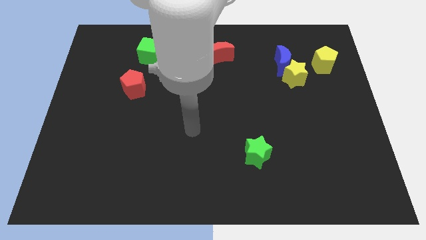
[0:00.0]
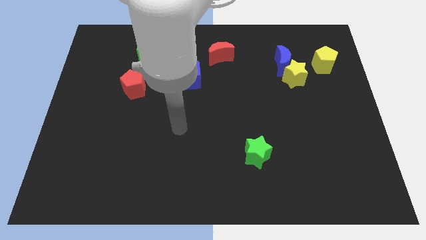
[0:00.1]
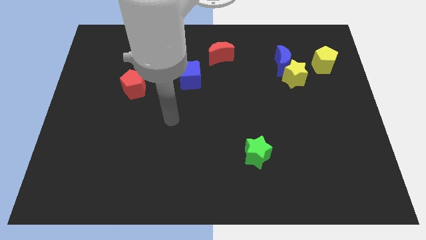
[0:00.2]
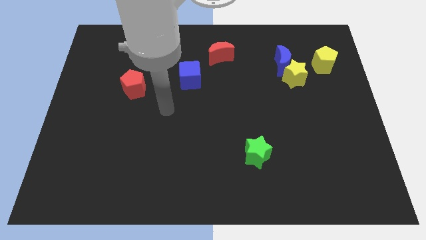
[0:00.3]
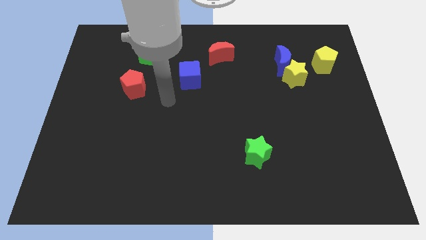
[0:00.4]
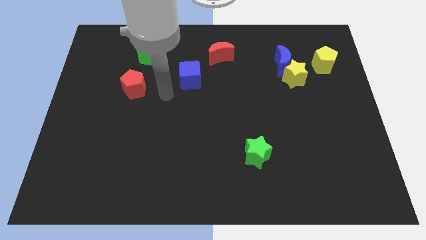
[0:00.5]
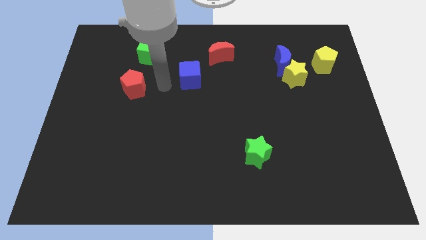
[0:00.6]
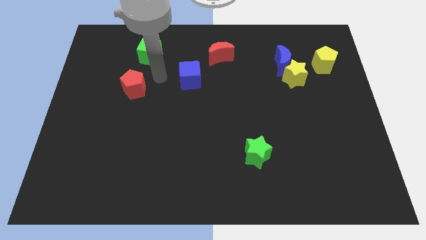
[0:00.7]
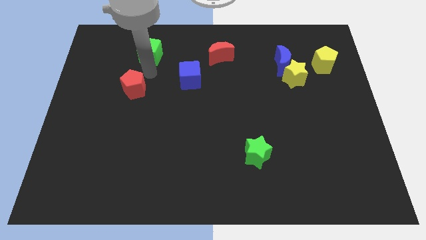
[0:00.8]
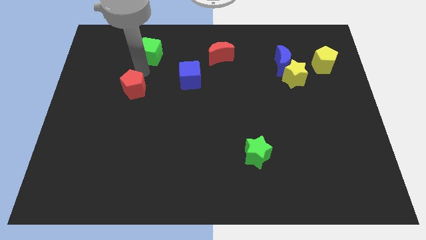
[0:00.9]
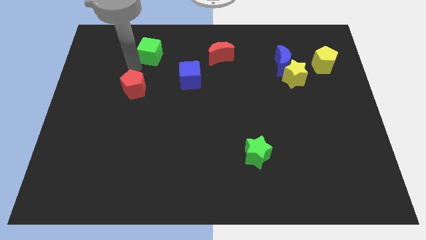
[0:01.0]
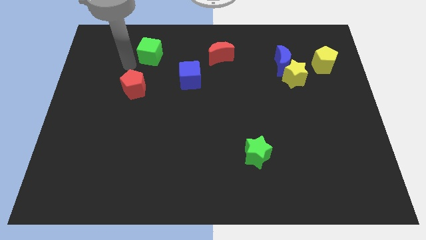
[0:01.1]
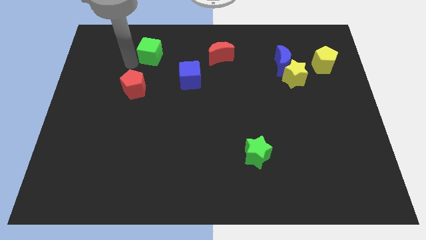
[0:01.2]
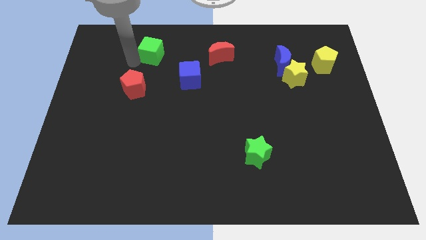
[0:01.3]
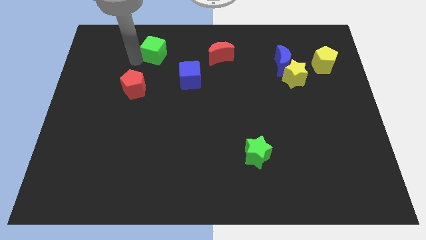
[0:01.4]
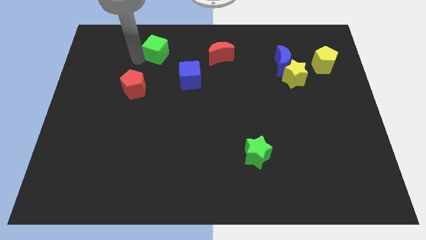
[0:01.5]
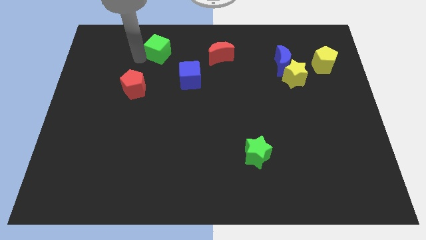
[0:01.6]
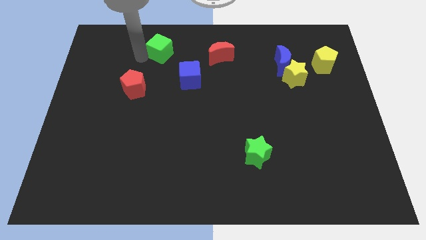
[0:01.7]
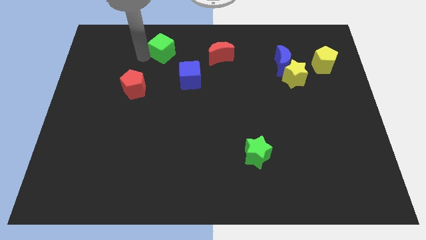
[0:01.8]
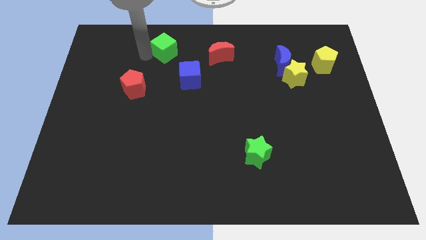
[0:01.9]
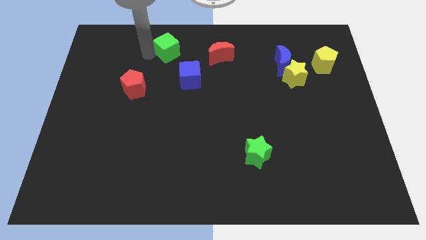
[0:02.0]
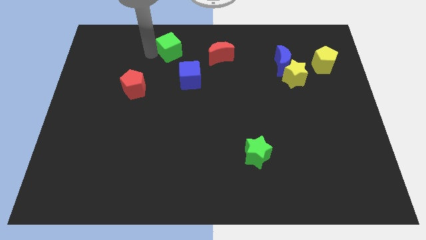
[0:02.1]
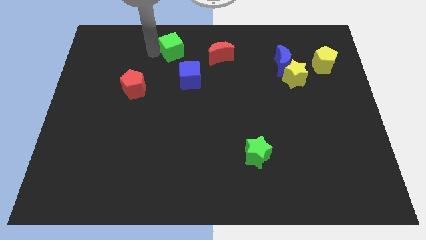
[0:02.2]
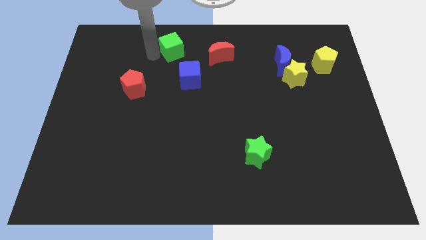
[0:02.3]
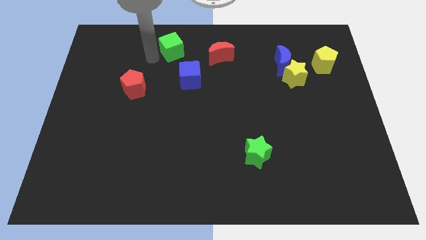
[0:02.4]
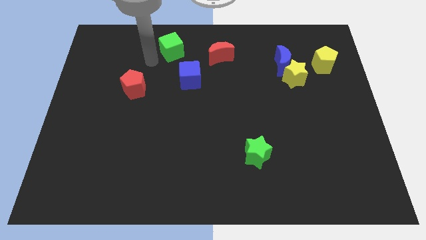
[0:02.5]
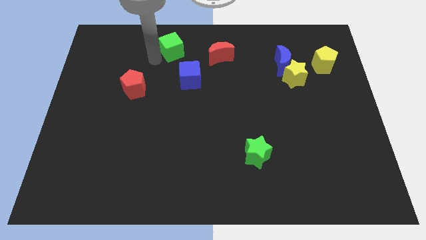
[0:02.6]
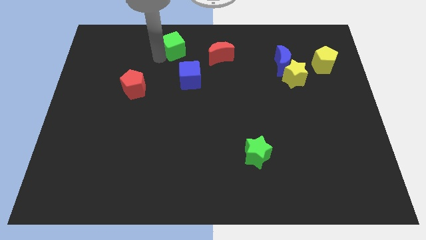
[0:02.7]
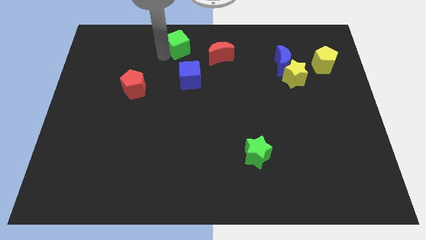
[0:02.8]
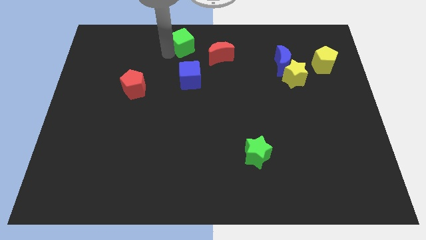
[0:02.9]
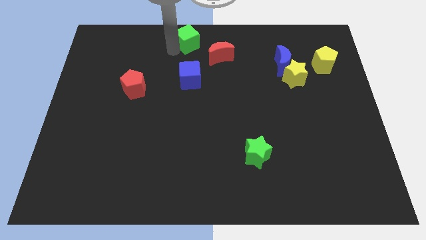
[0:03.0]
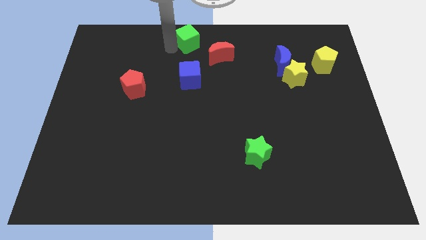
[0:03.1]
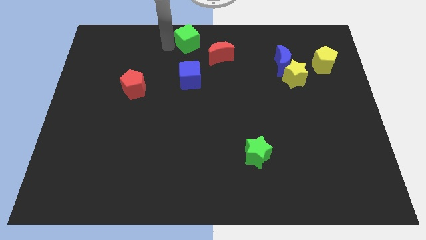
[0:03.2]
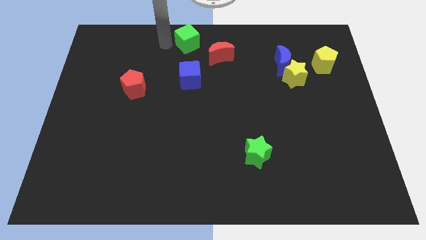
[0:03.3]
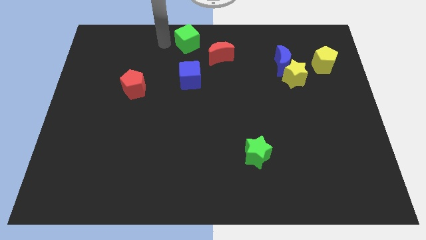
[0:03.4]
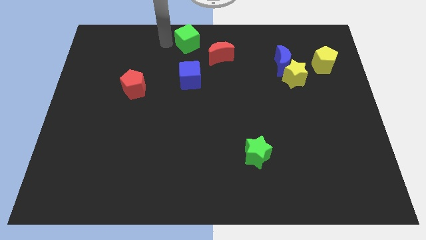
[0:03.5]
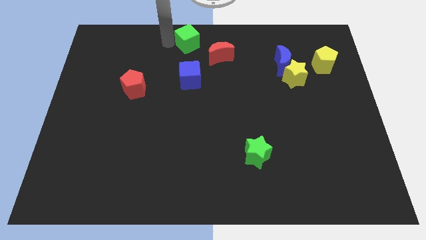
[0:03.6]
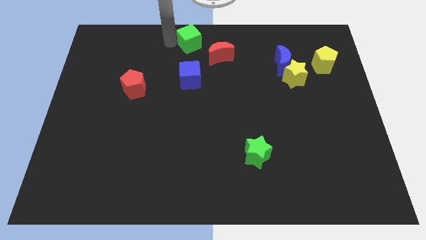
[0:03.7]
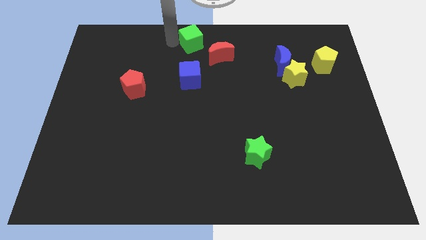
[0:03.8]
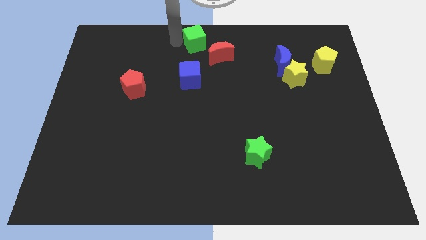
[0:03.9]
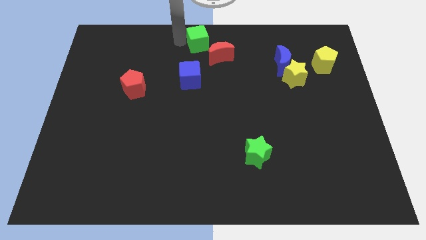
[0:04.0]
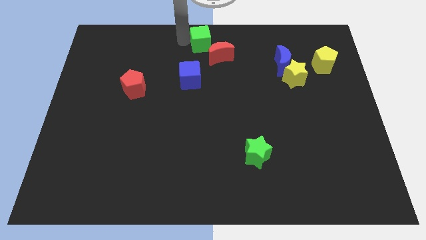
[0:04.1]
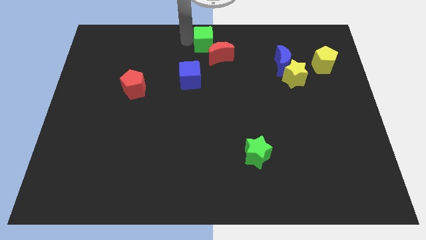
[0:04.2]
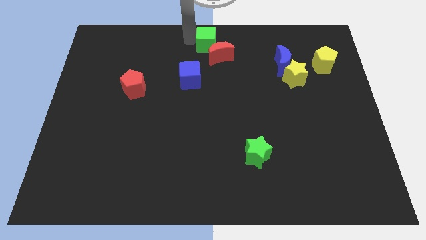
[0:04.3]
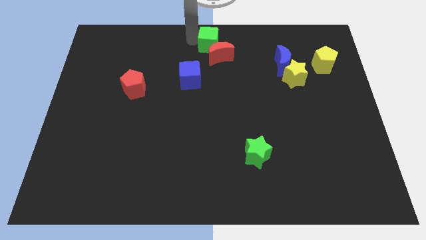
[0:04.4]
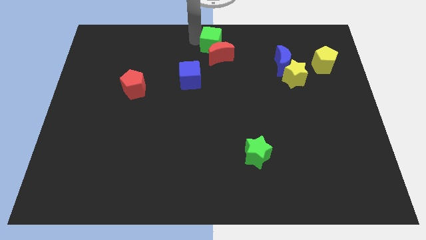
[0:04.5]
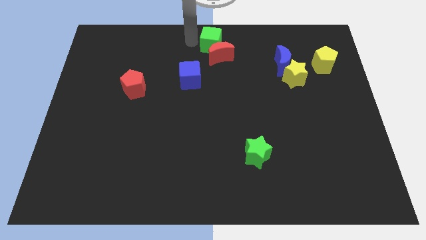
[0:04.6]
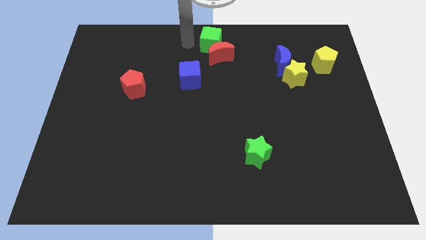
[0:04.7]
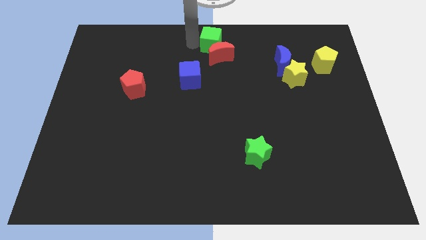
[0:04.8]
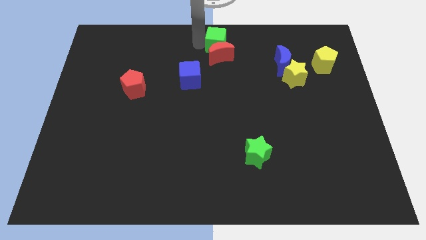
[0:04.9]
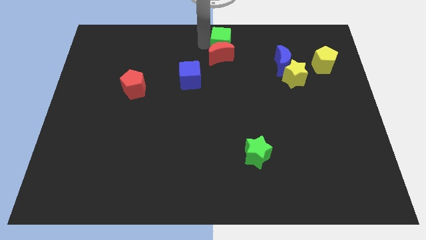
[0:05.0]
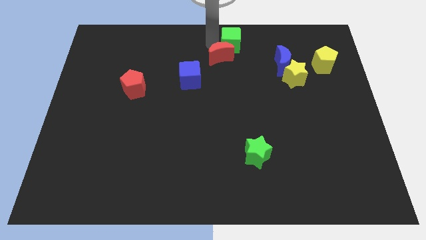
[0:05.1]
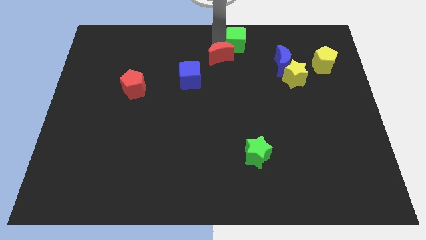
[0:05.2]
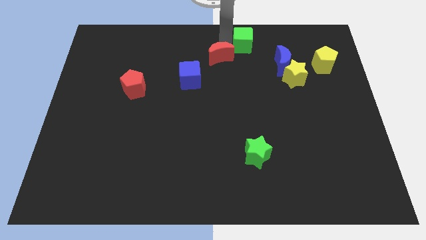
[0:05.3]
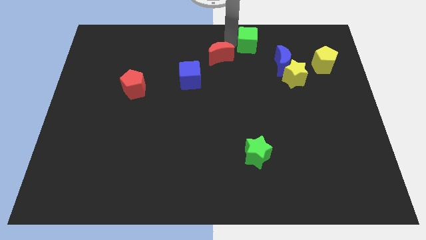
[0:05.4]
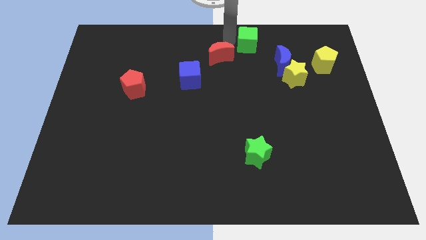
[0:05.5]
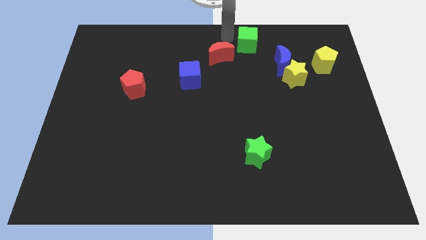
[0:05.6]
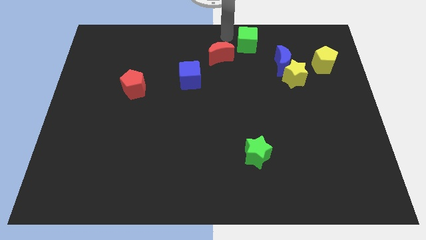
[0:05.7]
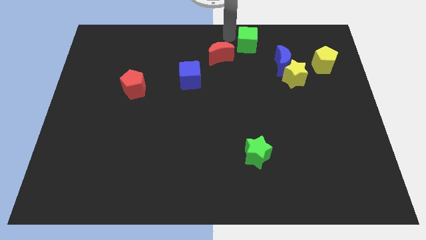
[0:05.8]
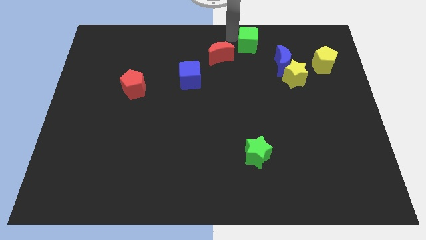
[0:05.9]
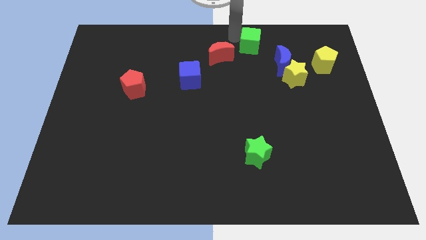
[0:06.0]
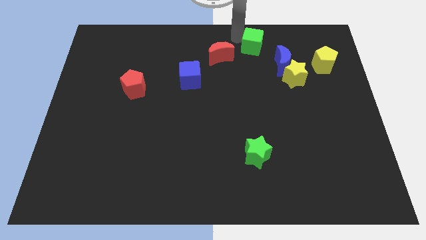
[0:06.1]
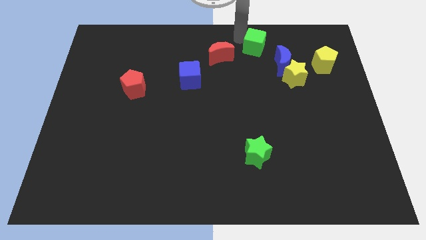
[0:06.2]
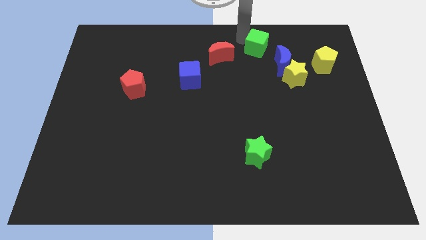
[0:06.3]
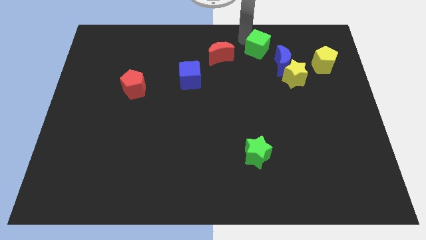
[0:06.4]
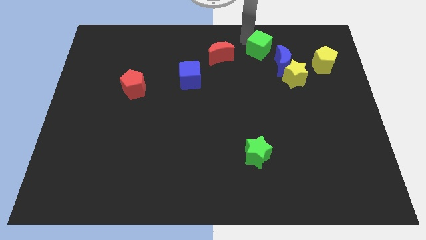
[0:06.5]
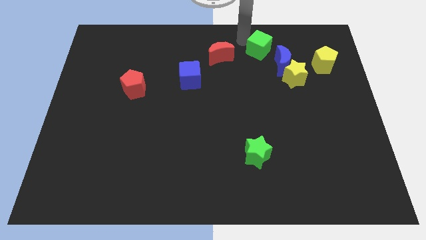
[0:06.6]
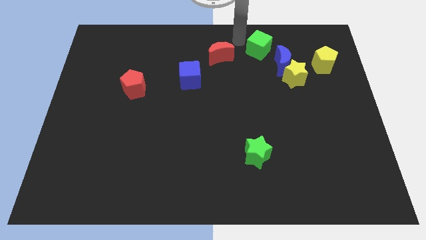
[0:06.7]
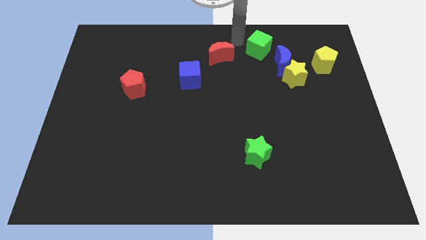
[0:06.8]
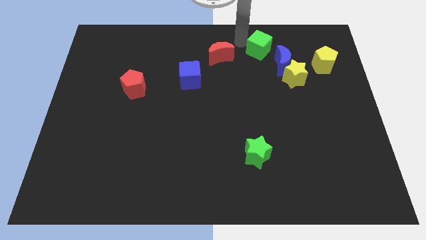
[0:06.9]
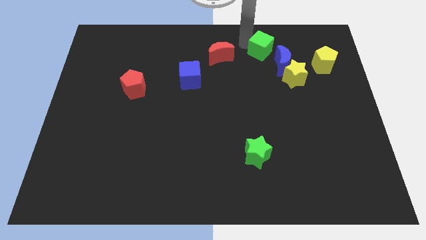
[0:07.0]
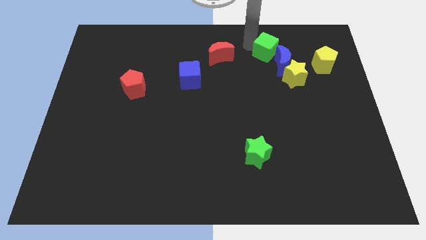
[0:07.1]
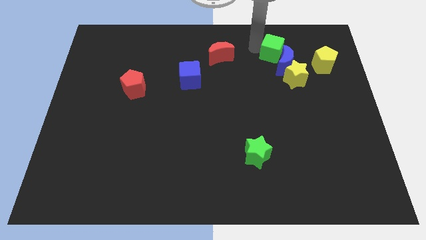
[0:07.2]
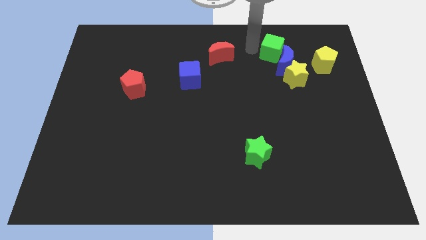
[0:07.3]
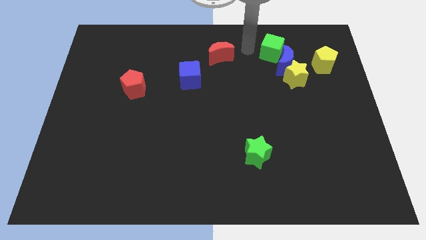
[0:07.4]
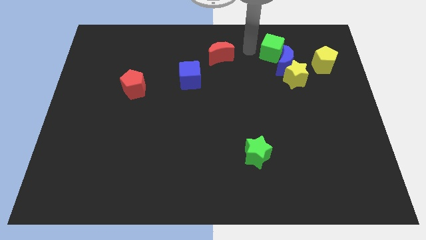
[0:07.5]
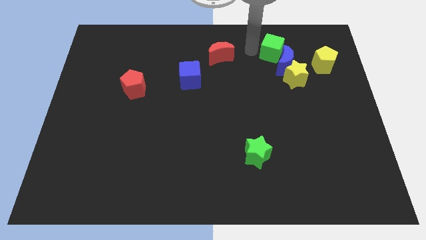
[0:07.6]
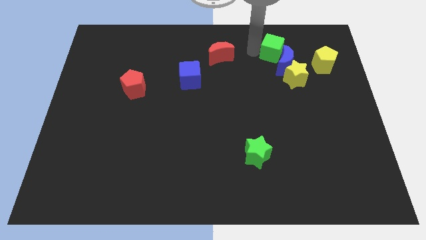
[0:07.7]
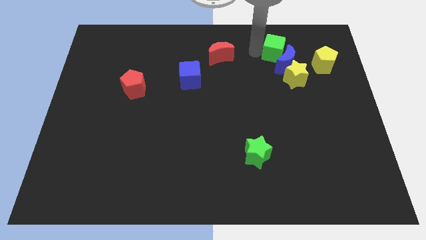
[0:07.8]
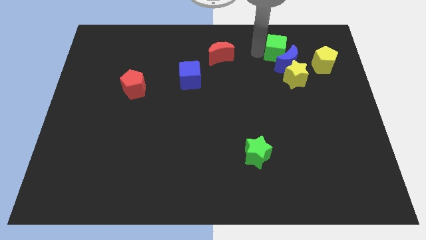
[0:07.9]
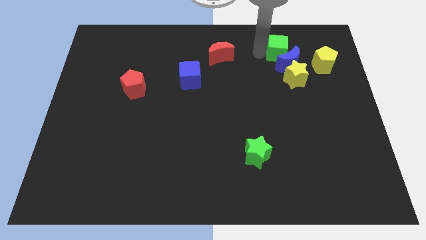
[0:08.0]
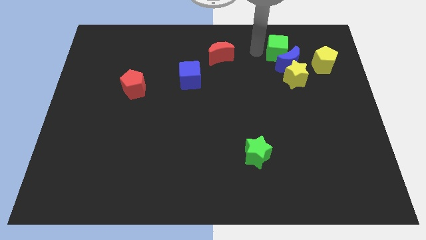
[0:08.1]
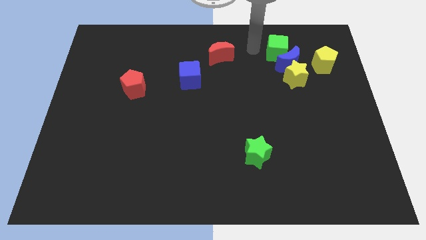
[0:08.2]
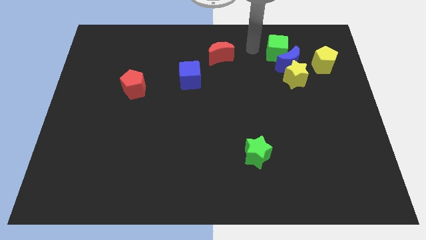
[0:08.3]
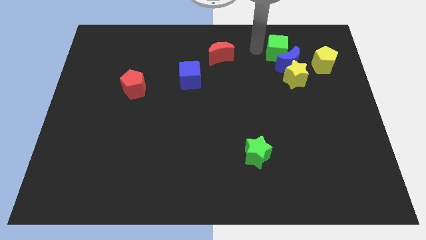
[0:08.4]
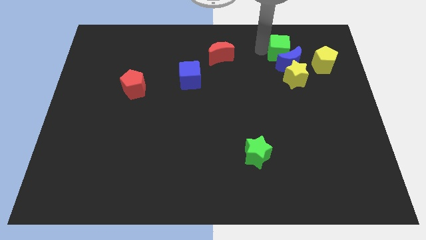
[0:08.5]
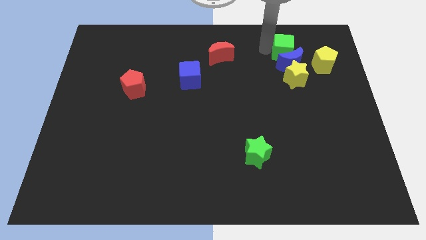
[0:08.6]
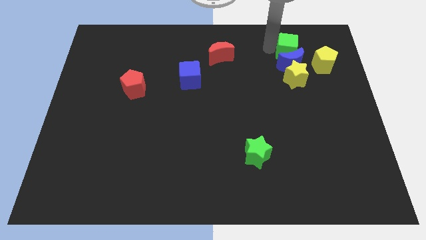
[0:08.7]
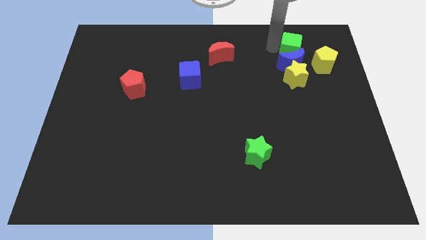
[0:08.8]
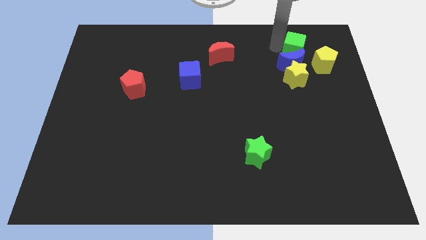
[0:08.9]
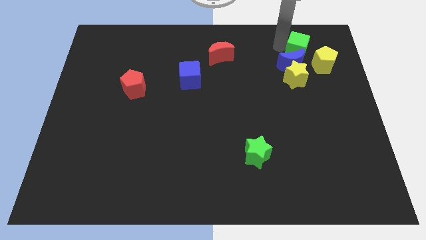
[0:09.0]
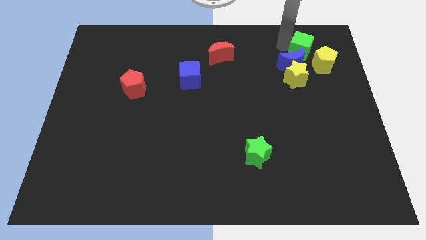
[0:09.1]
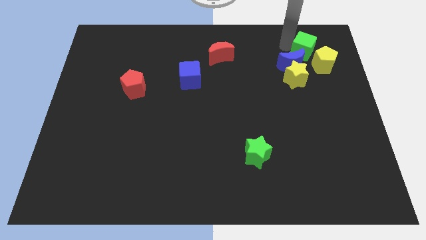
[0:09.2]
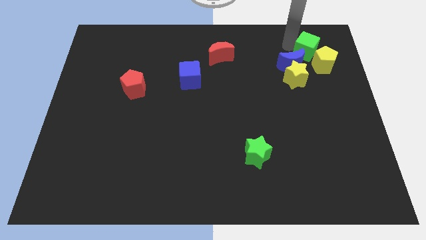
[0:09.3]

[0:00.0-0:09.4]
move the green cube close to the yellow pentagon
